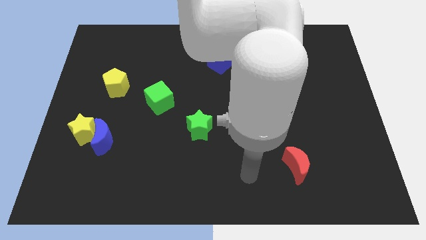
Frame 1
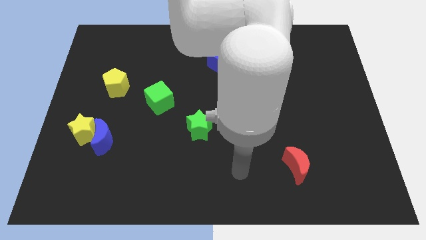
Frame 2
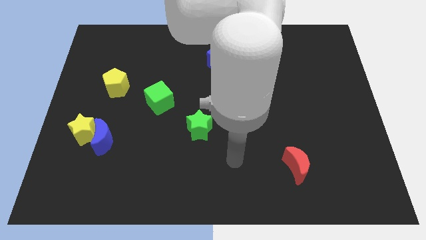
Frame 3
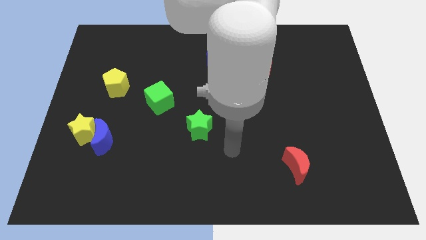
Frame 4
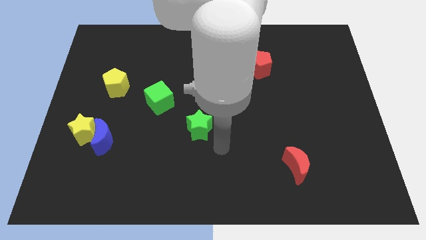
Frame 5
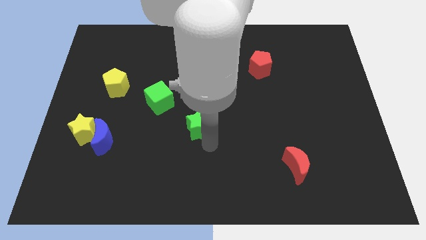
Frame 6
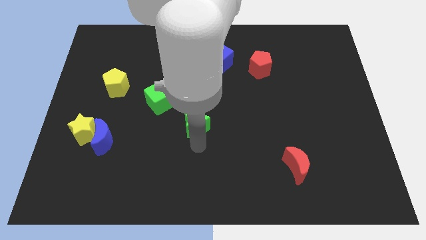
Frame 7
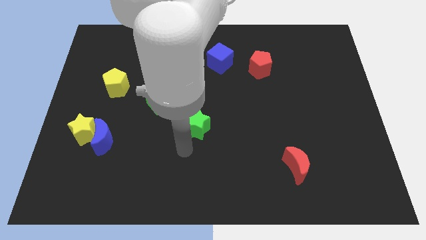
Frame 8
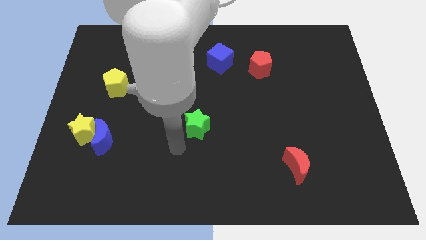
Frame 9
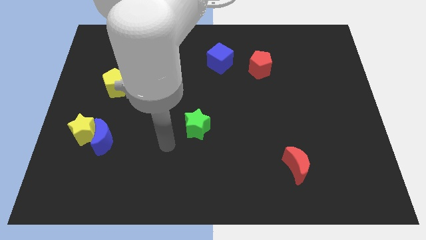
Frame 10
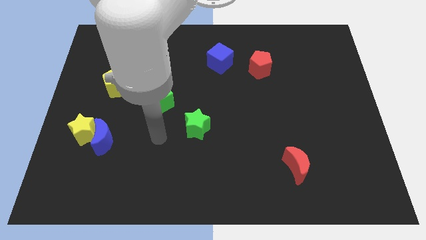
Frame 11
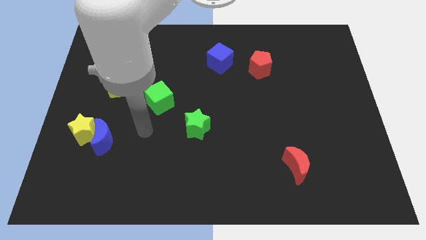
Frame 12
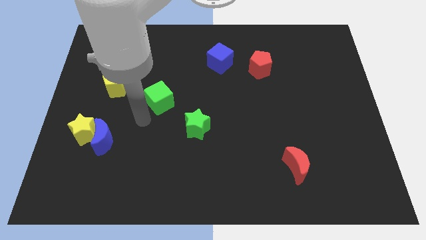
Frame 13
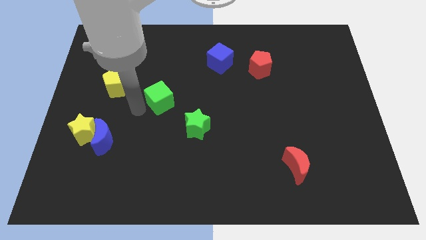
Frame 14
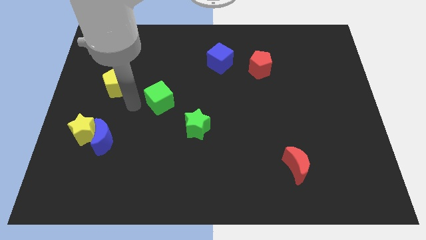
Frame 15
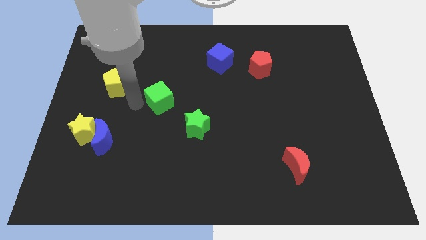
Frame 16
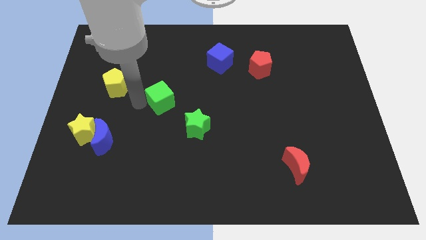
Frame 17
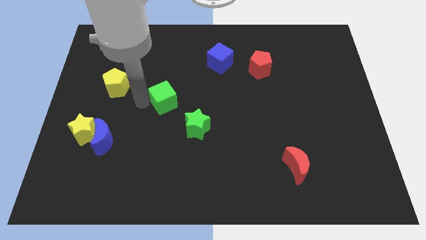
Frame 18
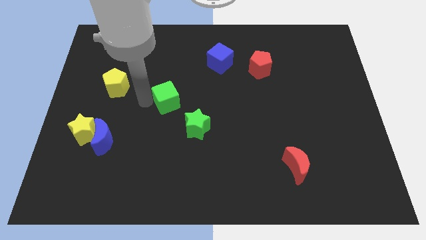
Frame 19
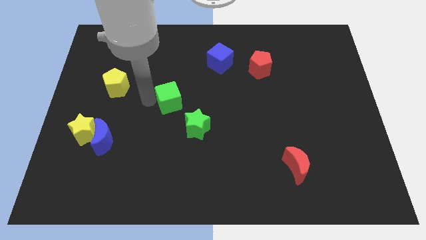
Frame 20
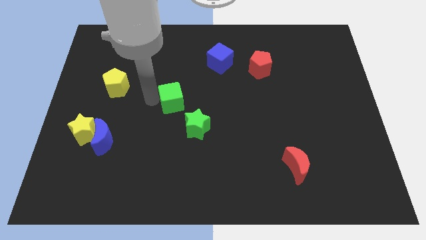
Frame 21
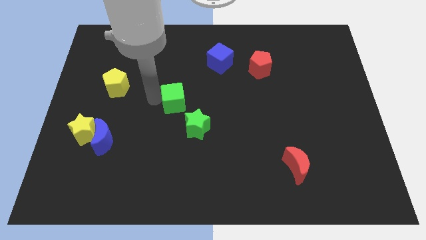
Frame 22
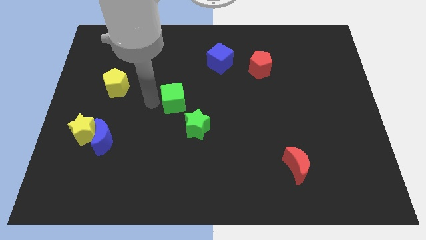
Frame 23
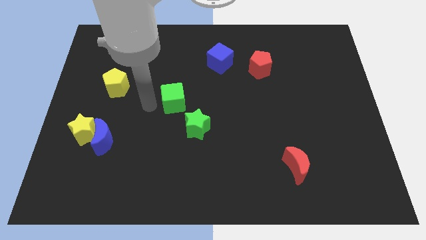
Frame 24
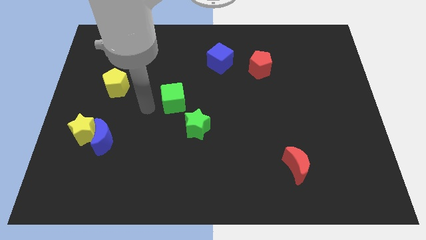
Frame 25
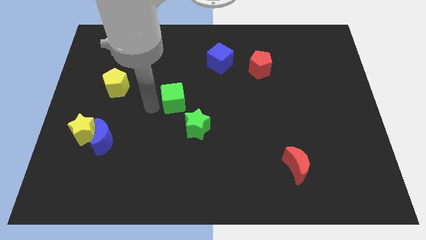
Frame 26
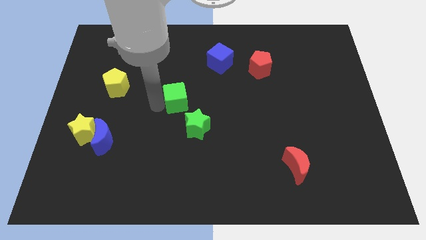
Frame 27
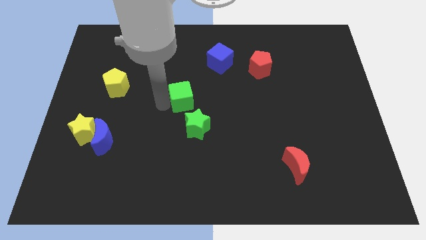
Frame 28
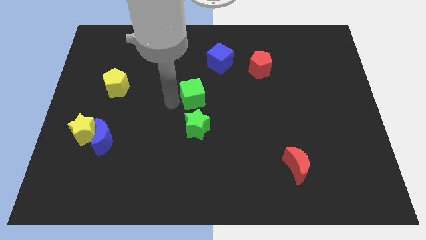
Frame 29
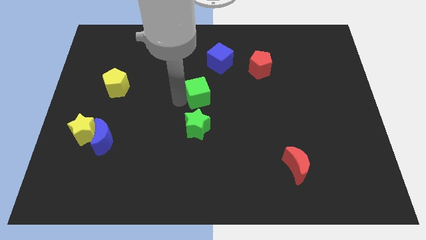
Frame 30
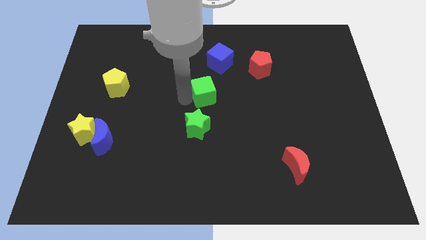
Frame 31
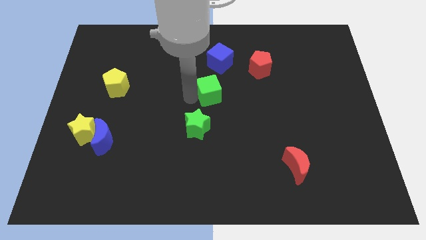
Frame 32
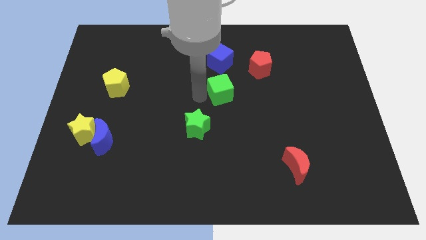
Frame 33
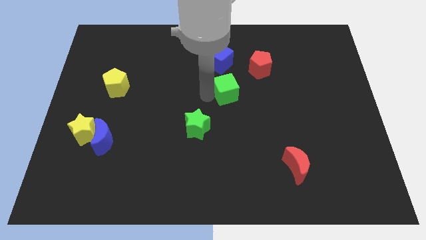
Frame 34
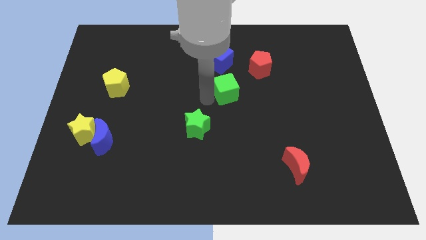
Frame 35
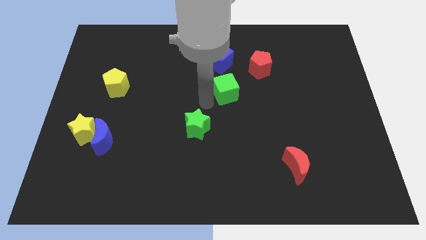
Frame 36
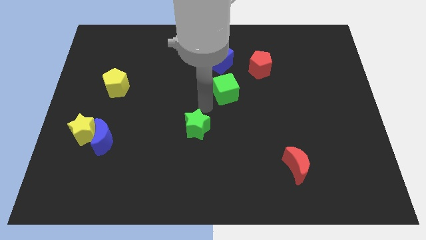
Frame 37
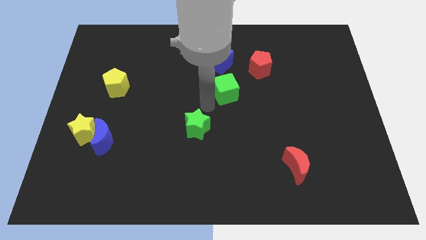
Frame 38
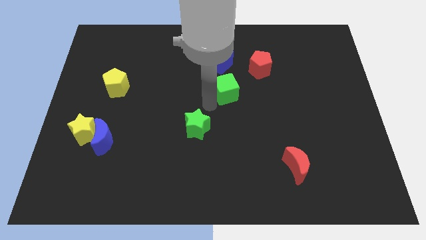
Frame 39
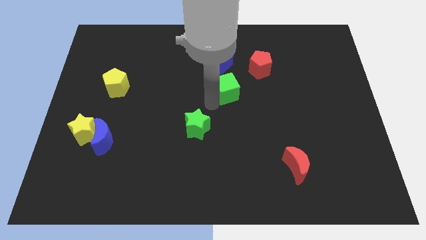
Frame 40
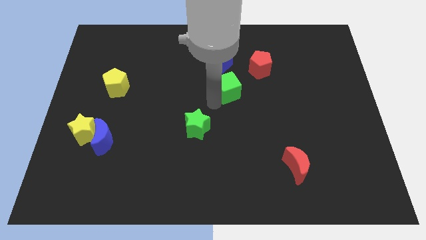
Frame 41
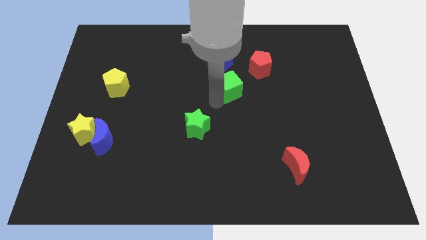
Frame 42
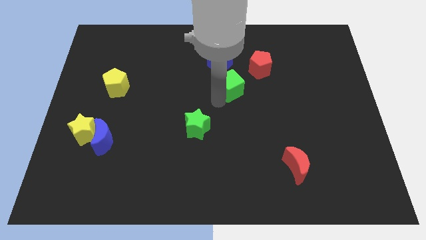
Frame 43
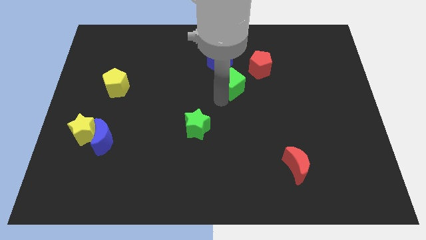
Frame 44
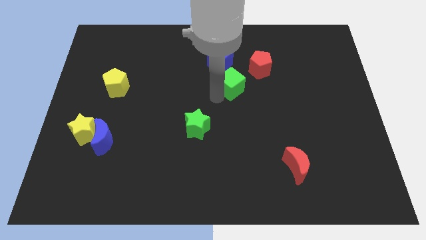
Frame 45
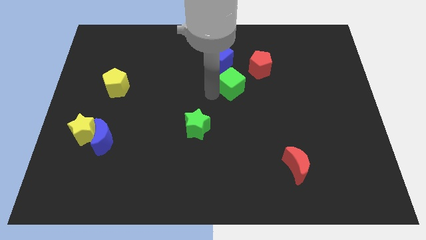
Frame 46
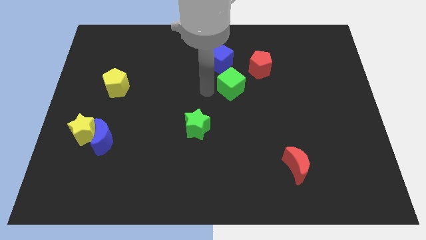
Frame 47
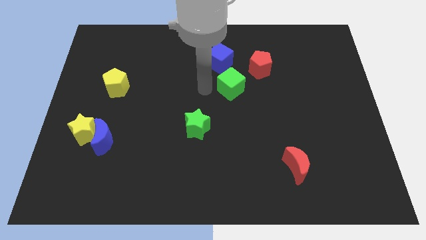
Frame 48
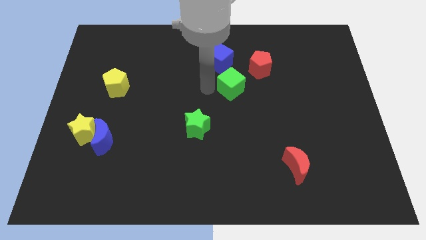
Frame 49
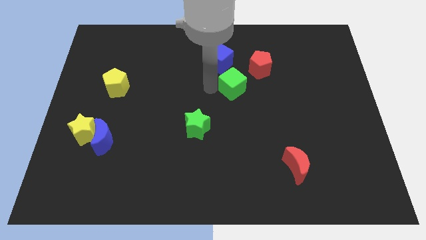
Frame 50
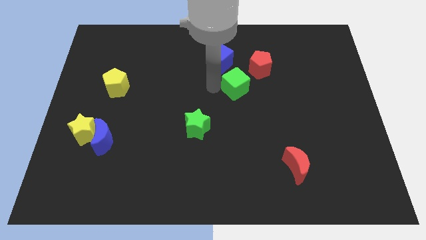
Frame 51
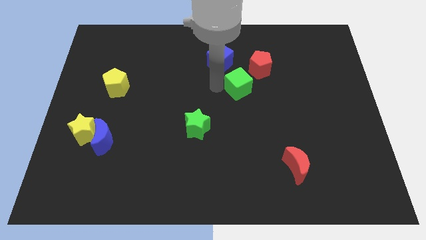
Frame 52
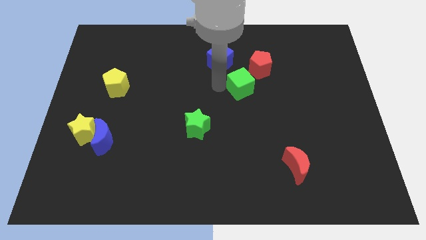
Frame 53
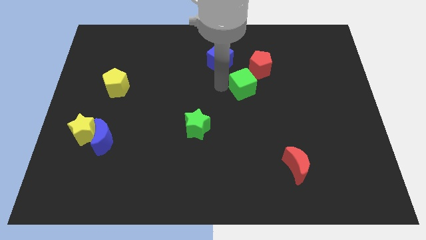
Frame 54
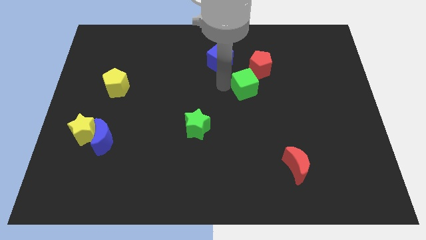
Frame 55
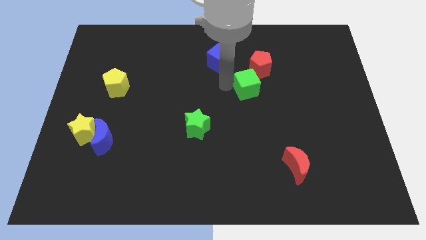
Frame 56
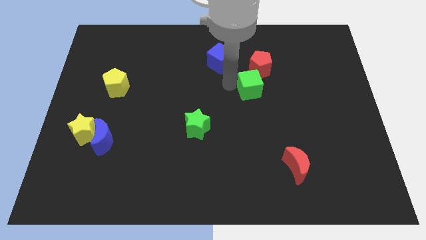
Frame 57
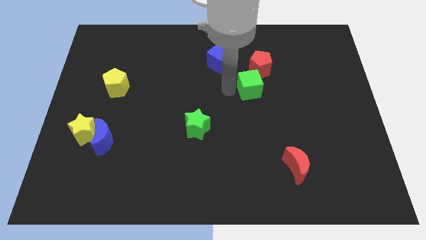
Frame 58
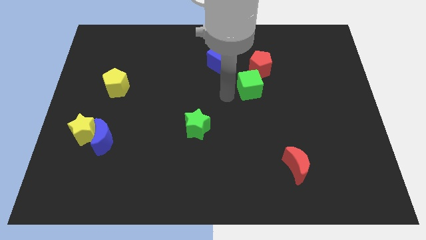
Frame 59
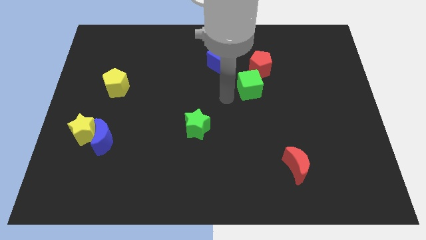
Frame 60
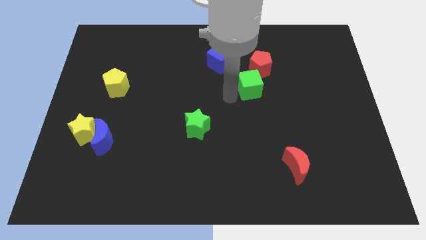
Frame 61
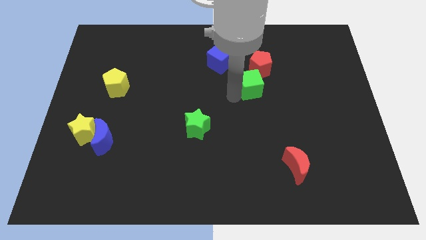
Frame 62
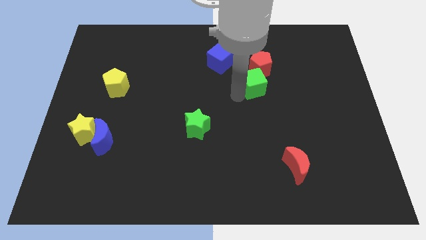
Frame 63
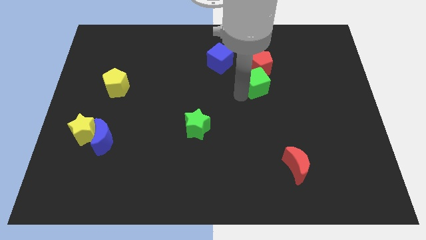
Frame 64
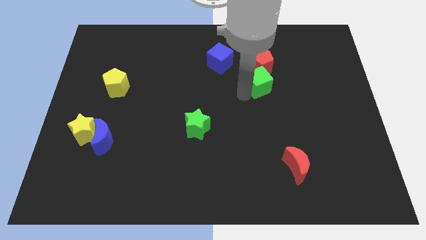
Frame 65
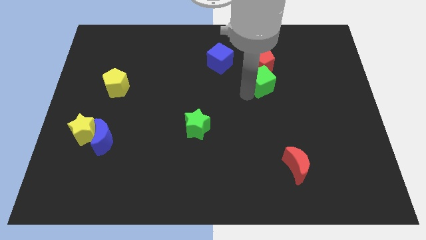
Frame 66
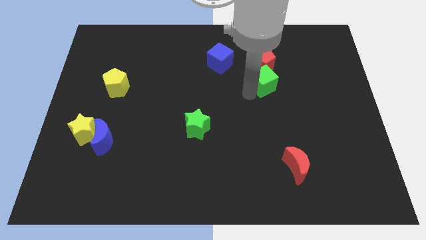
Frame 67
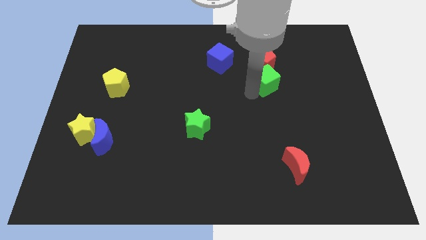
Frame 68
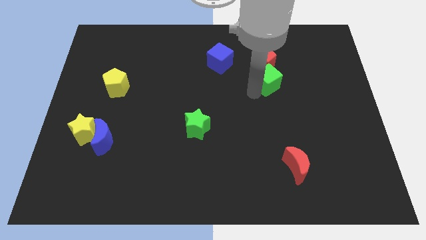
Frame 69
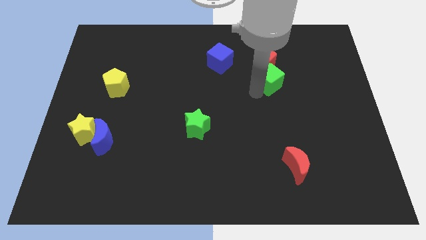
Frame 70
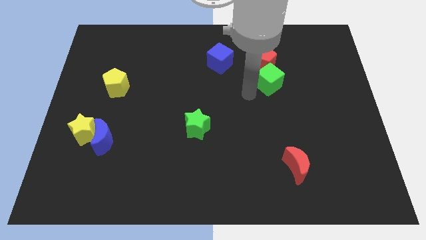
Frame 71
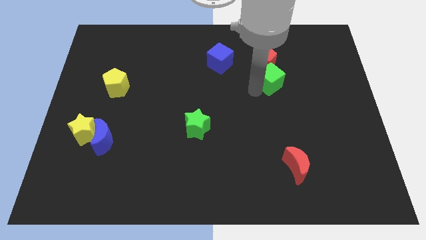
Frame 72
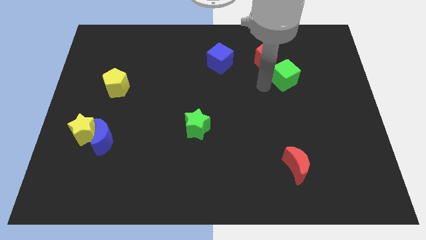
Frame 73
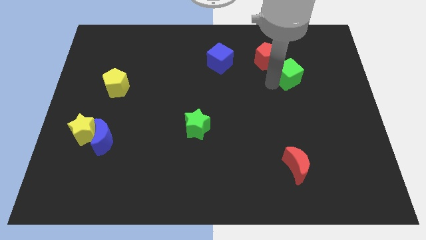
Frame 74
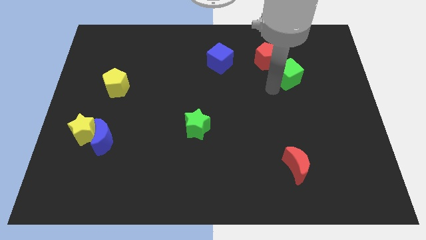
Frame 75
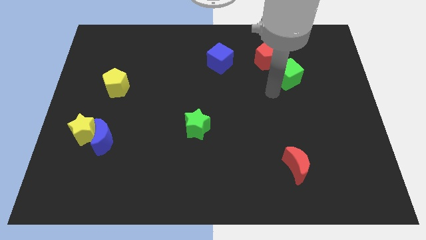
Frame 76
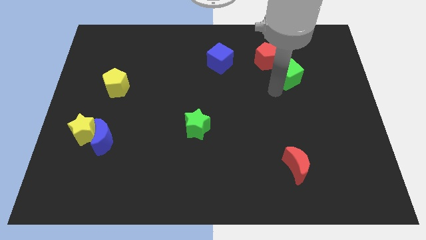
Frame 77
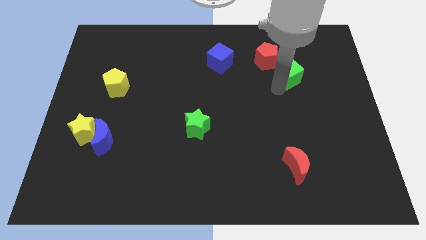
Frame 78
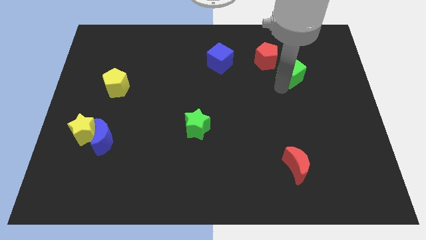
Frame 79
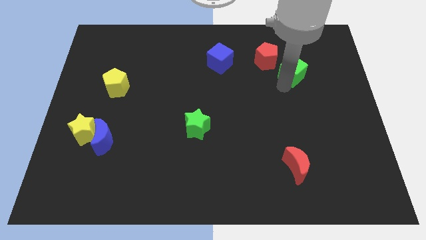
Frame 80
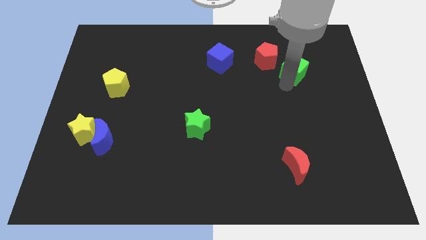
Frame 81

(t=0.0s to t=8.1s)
move the green cube to the right side of the red pentagon
